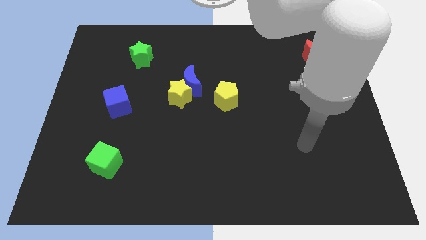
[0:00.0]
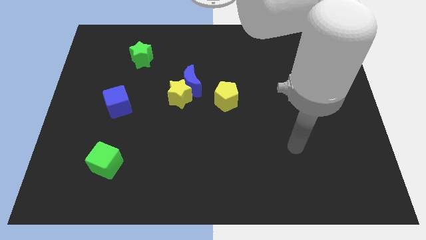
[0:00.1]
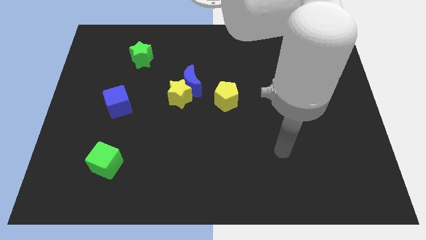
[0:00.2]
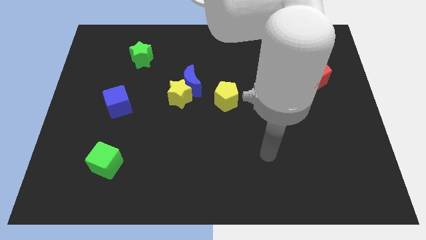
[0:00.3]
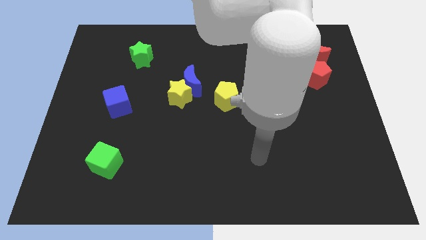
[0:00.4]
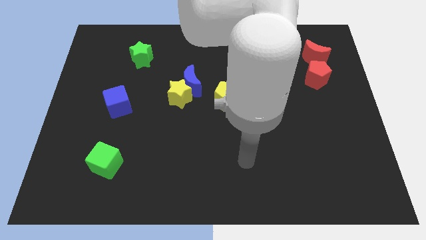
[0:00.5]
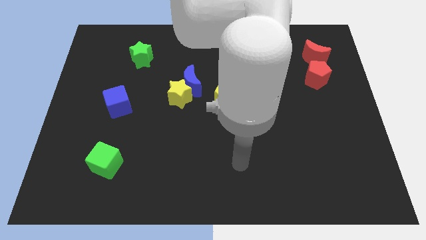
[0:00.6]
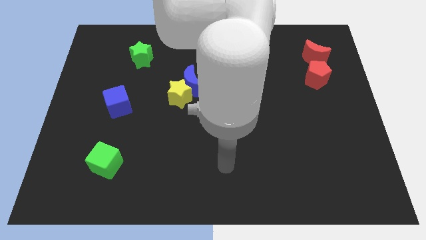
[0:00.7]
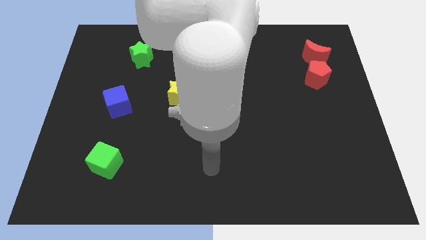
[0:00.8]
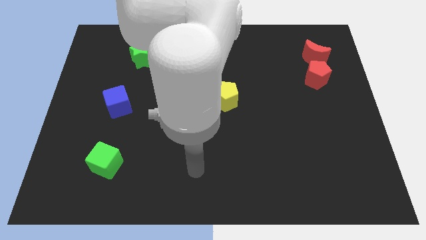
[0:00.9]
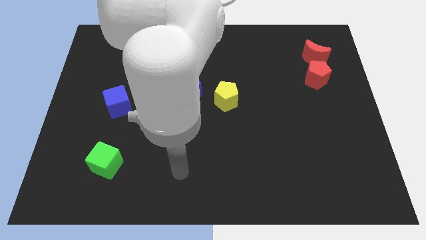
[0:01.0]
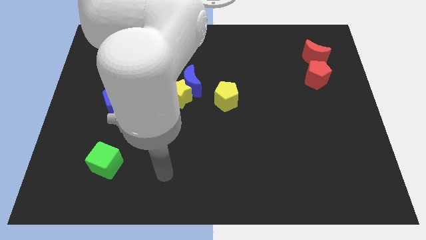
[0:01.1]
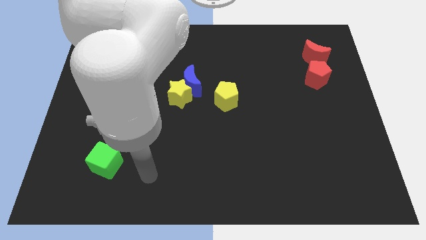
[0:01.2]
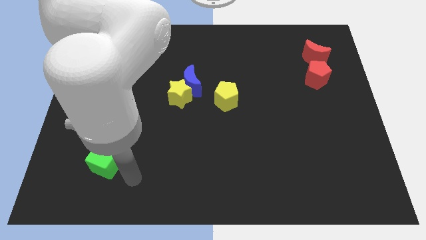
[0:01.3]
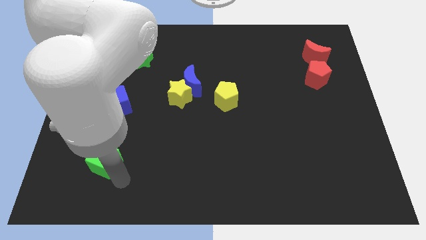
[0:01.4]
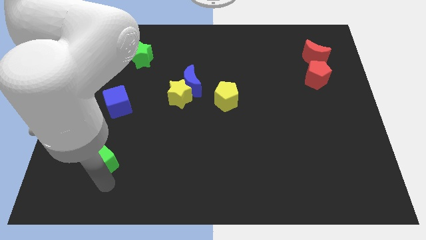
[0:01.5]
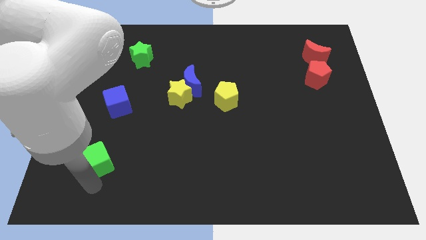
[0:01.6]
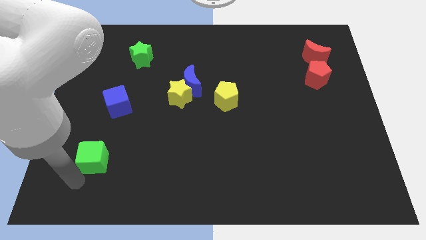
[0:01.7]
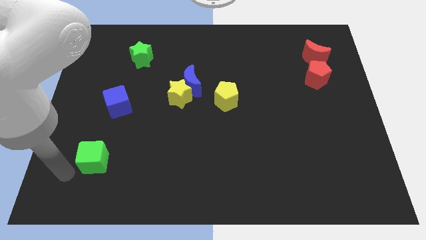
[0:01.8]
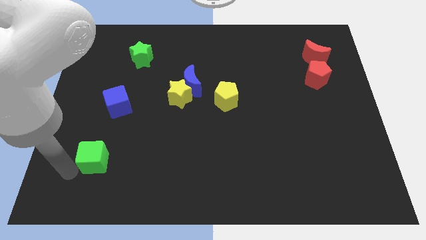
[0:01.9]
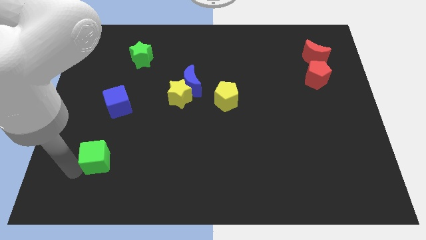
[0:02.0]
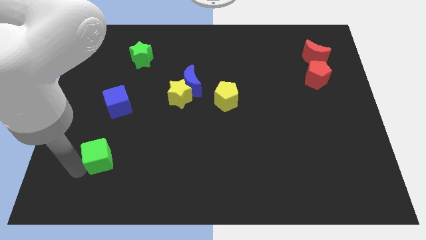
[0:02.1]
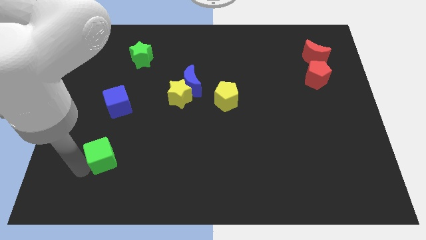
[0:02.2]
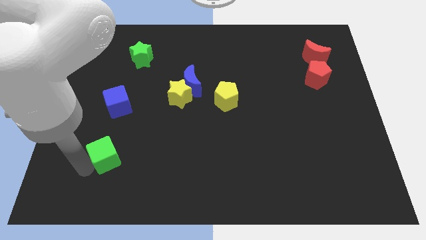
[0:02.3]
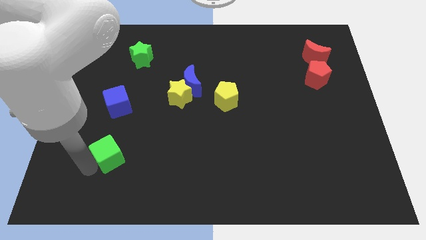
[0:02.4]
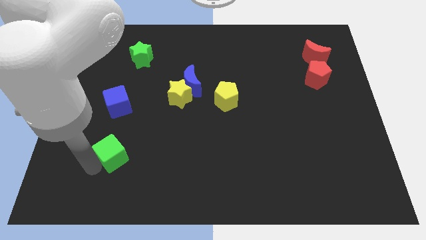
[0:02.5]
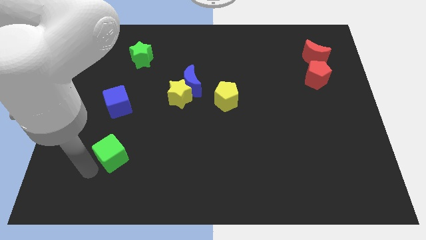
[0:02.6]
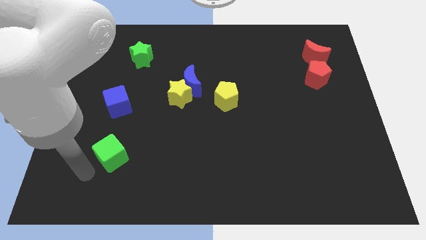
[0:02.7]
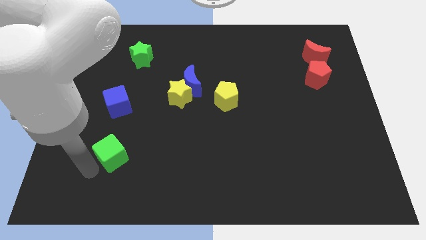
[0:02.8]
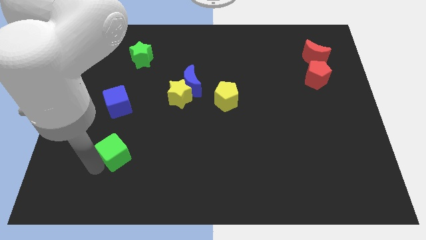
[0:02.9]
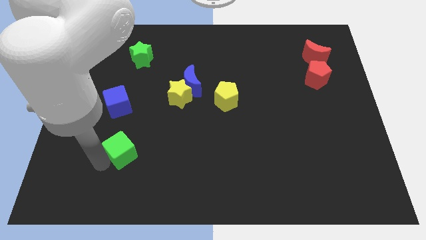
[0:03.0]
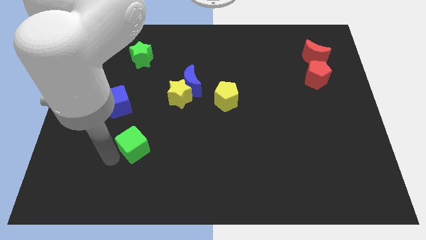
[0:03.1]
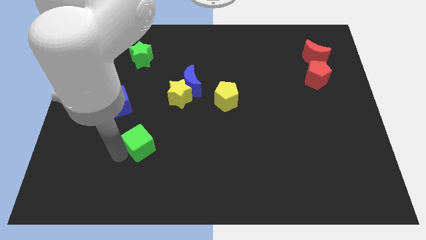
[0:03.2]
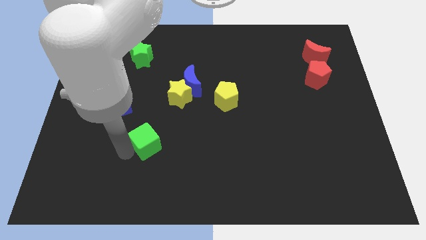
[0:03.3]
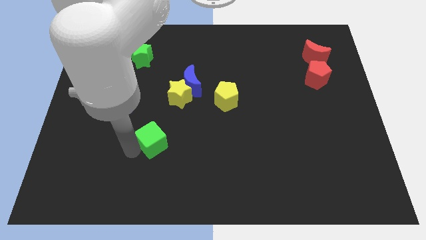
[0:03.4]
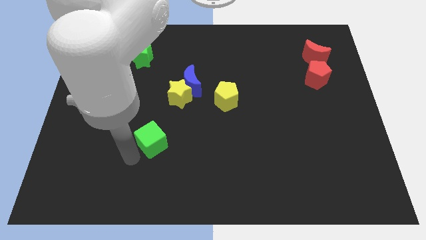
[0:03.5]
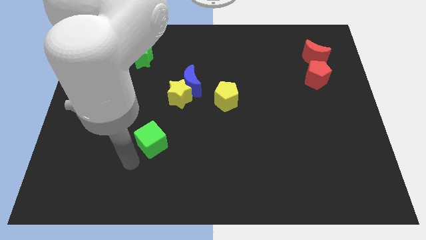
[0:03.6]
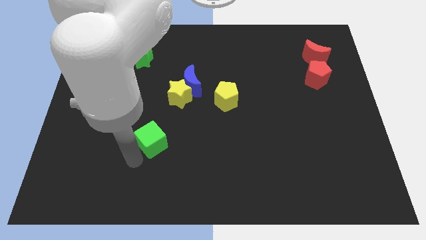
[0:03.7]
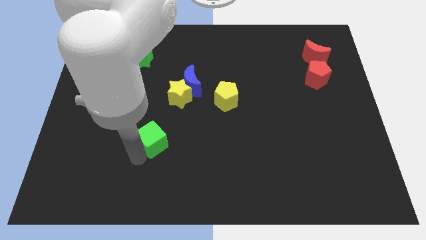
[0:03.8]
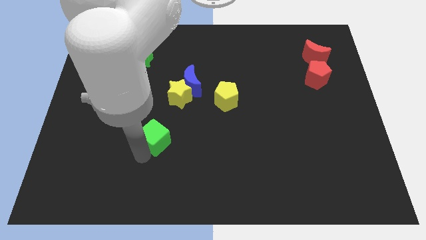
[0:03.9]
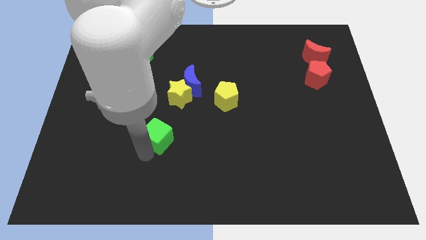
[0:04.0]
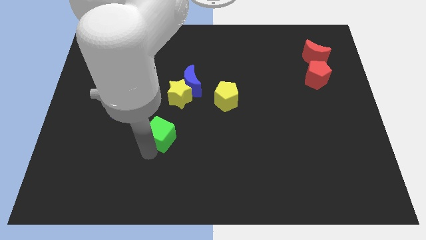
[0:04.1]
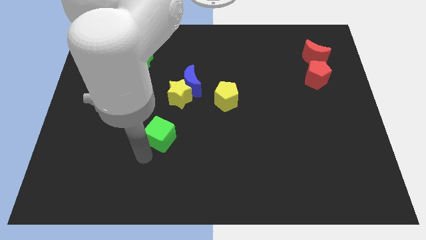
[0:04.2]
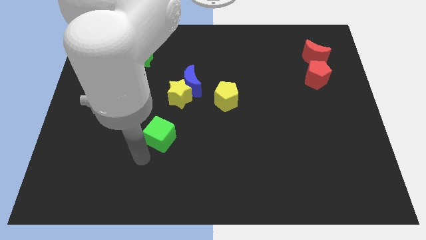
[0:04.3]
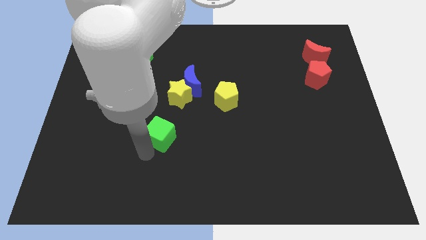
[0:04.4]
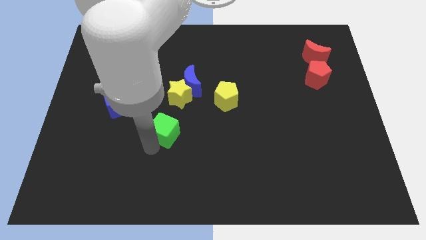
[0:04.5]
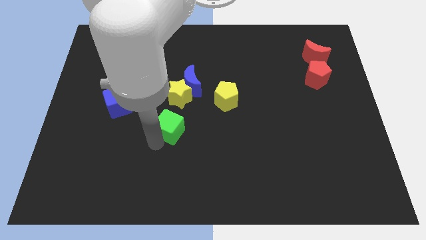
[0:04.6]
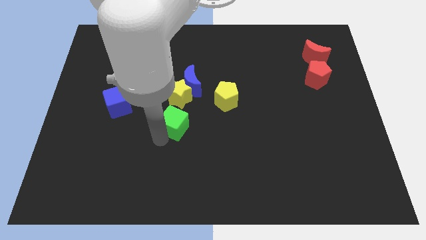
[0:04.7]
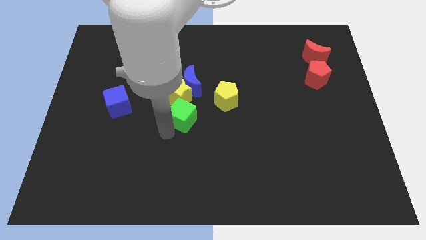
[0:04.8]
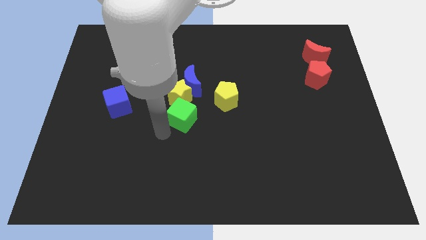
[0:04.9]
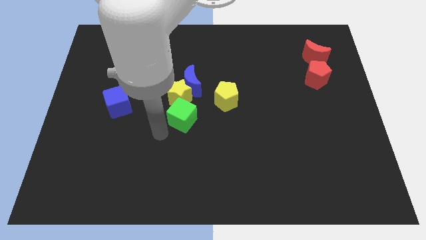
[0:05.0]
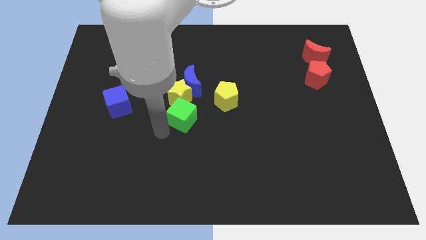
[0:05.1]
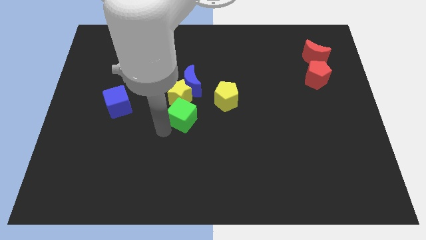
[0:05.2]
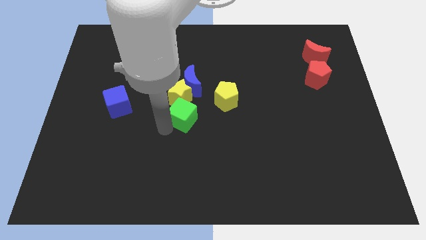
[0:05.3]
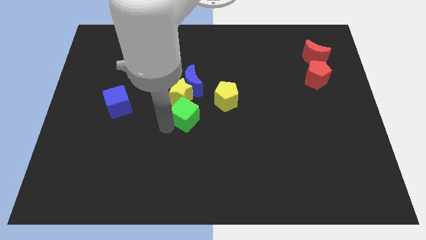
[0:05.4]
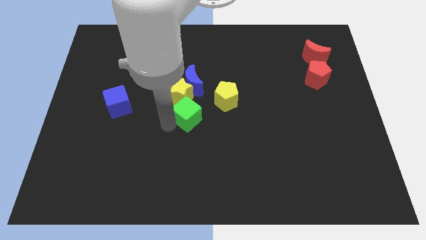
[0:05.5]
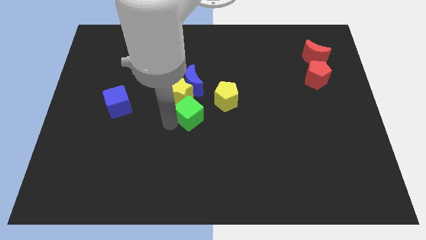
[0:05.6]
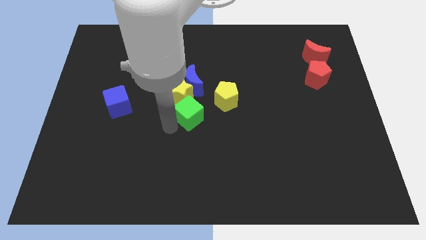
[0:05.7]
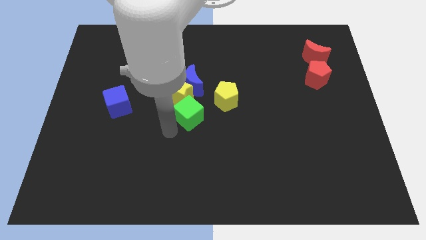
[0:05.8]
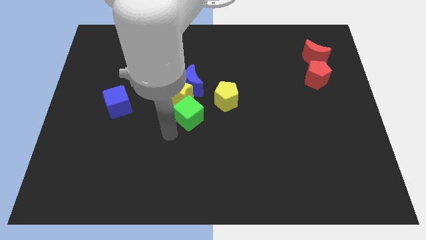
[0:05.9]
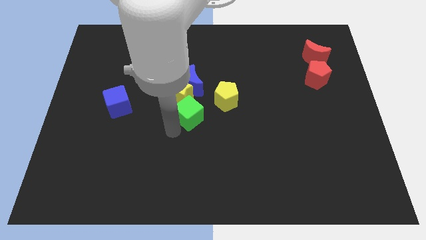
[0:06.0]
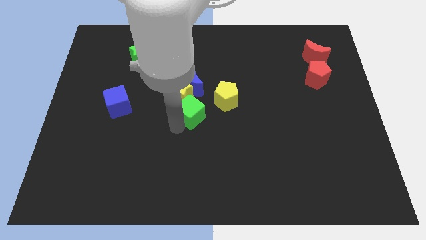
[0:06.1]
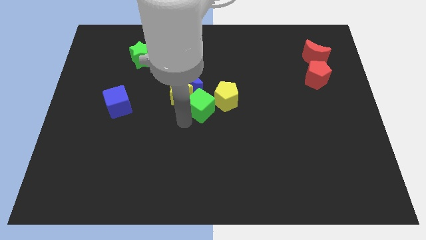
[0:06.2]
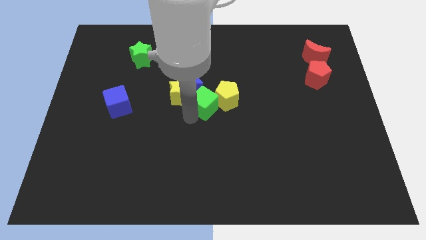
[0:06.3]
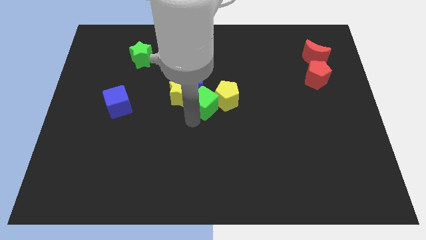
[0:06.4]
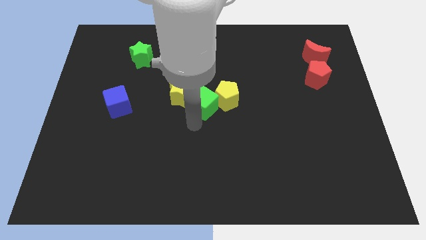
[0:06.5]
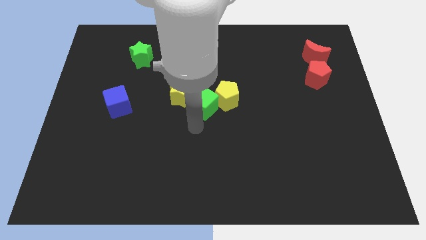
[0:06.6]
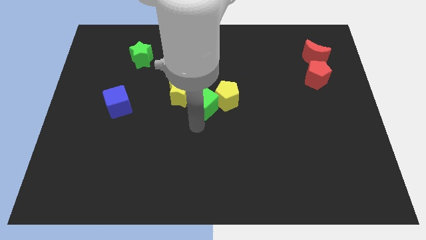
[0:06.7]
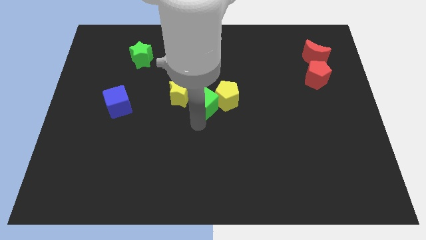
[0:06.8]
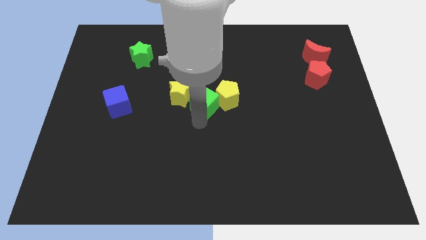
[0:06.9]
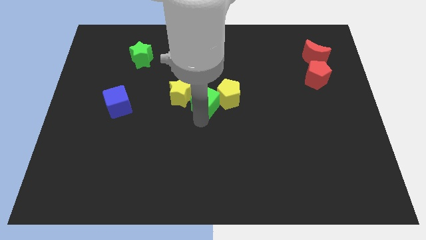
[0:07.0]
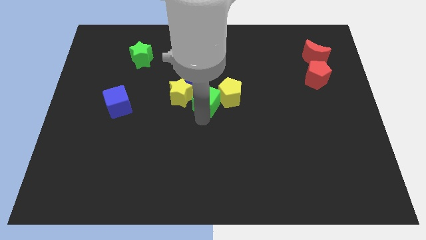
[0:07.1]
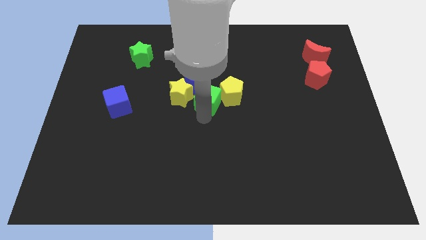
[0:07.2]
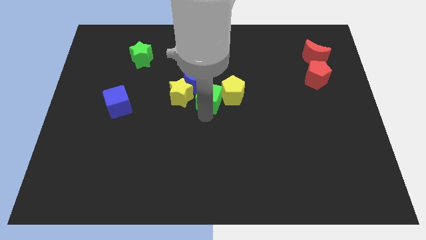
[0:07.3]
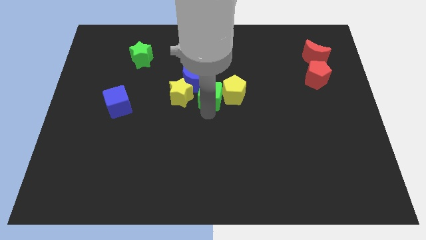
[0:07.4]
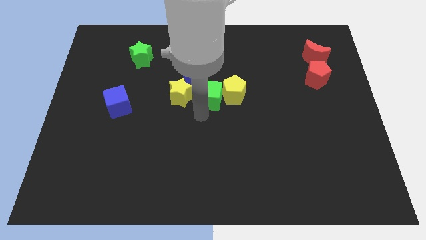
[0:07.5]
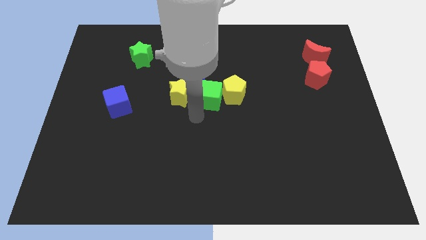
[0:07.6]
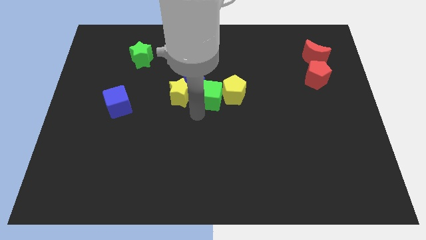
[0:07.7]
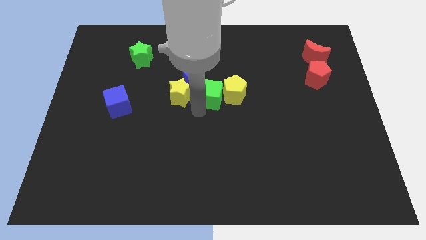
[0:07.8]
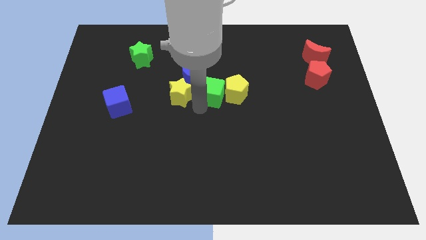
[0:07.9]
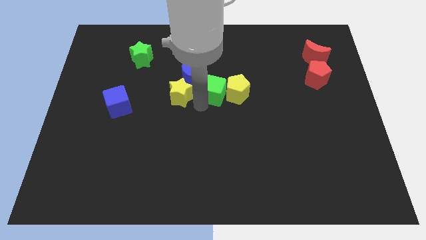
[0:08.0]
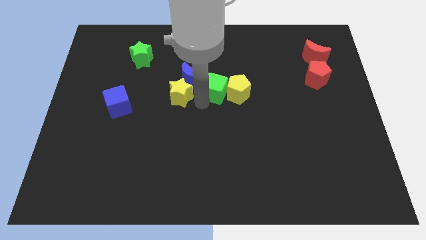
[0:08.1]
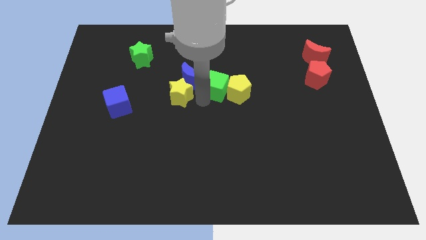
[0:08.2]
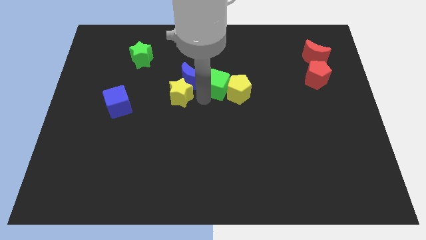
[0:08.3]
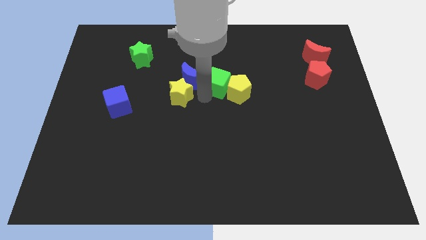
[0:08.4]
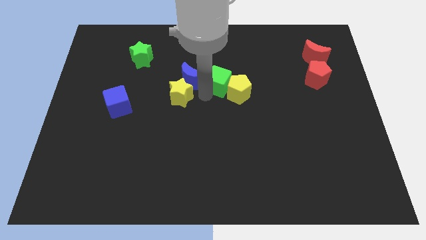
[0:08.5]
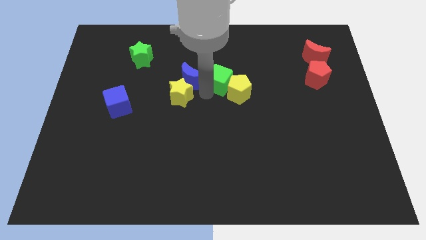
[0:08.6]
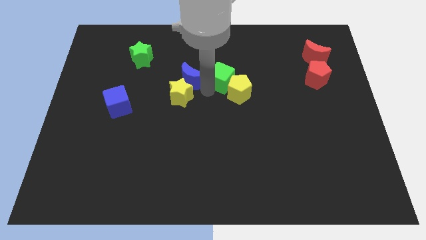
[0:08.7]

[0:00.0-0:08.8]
push the green cube to the top side of the yellow pentagon
